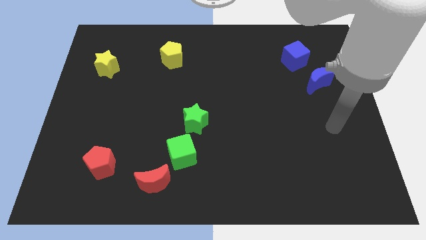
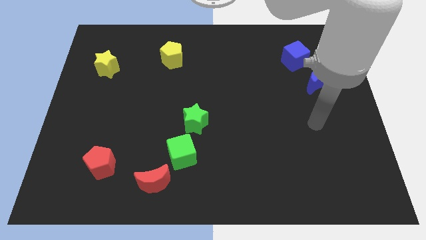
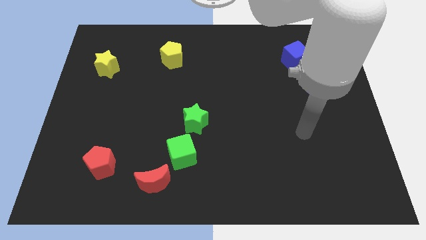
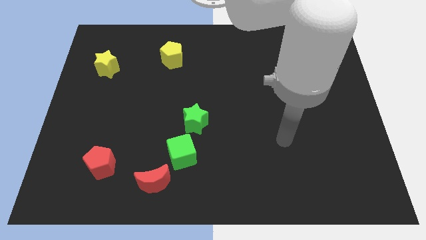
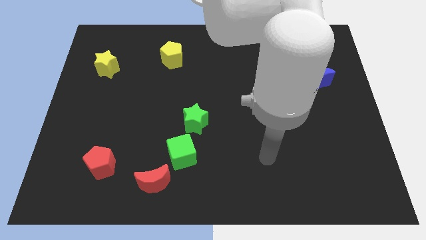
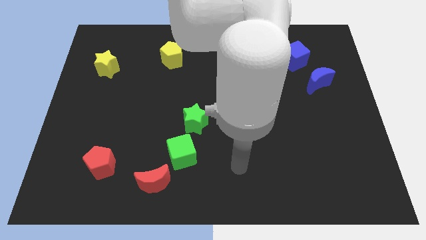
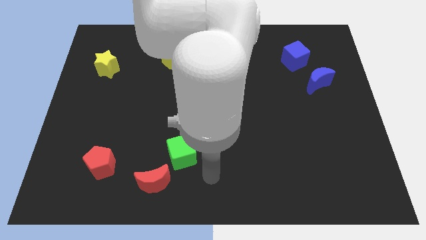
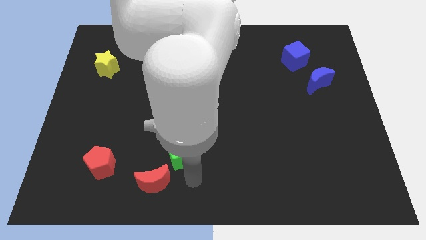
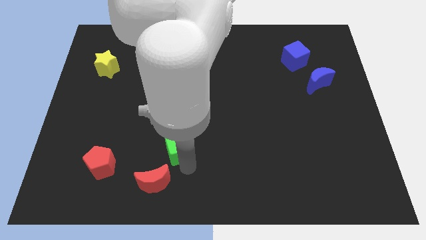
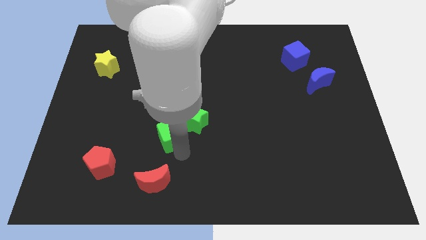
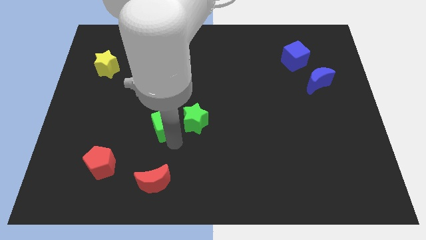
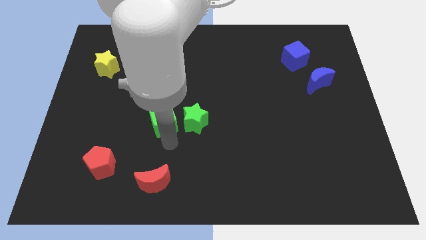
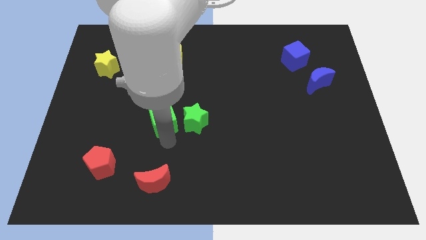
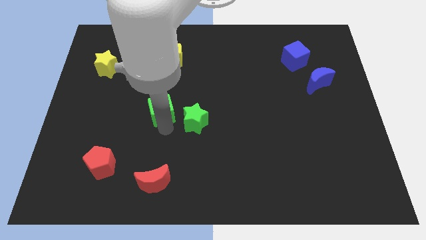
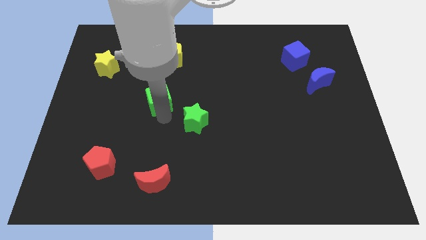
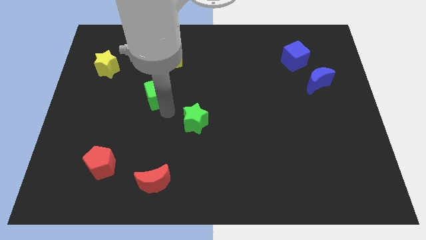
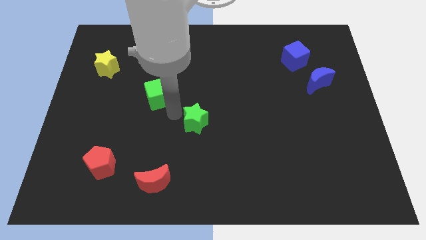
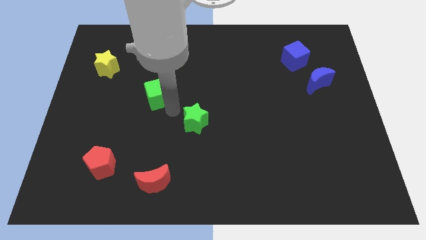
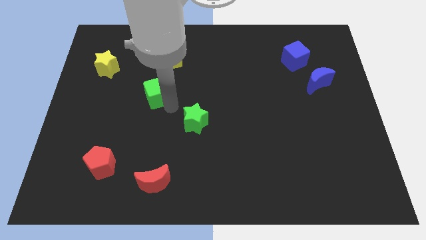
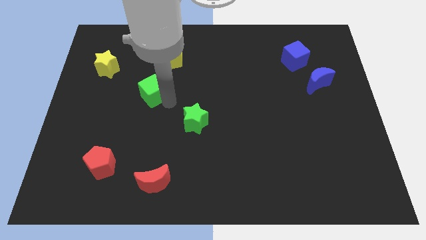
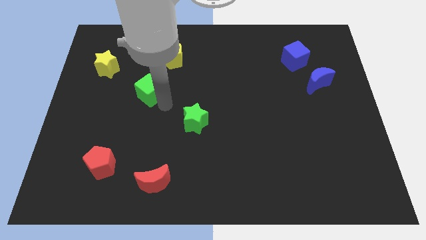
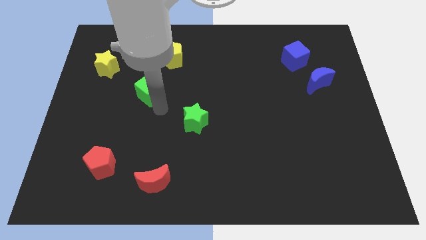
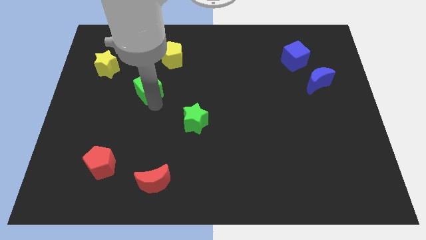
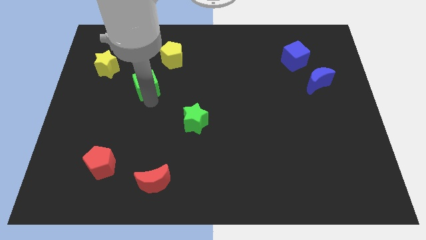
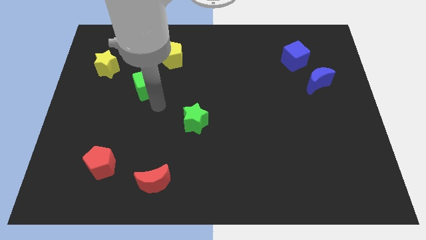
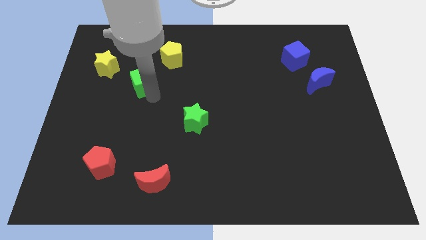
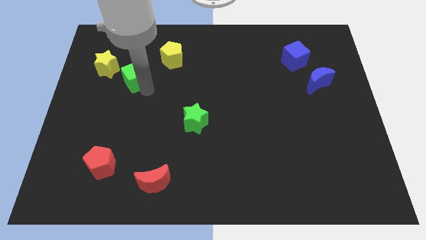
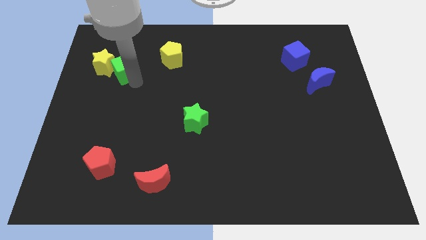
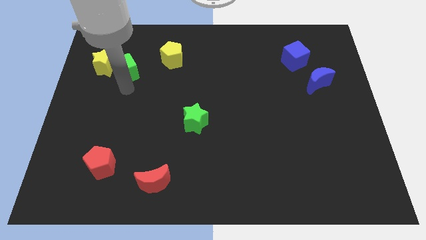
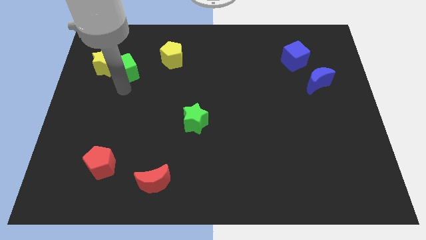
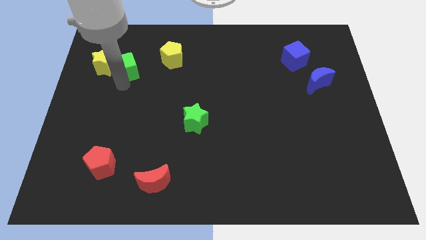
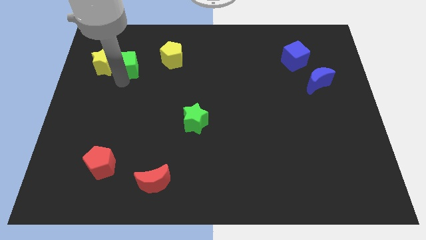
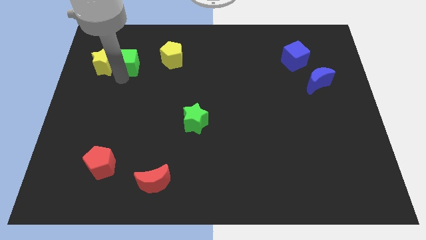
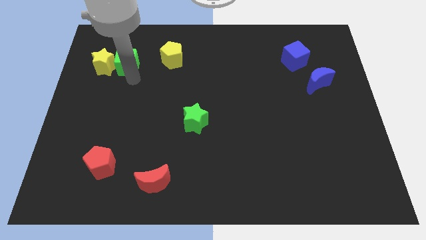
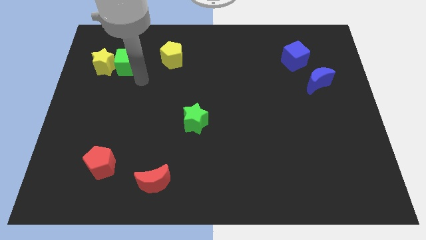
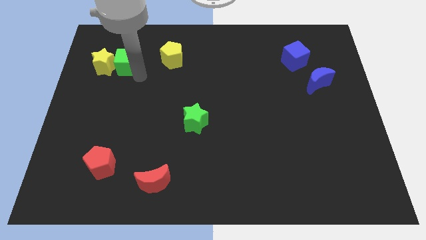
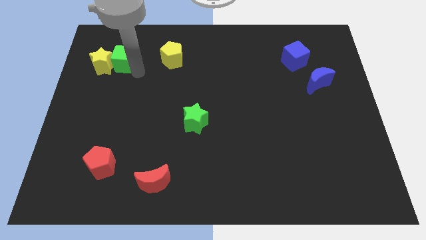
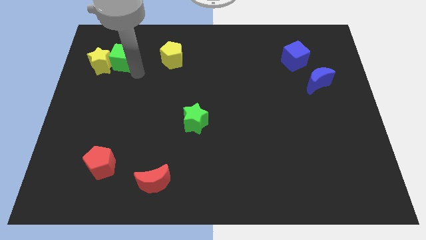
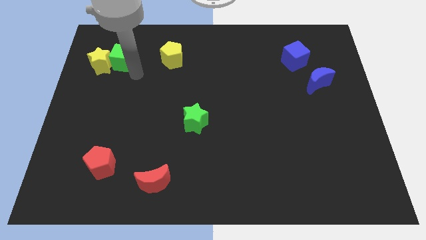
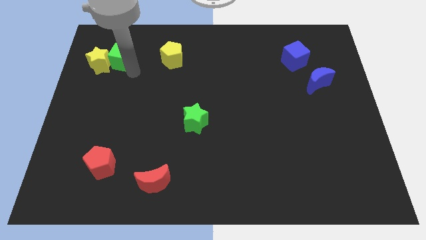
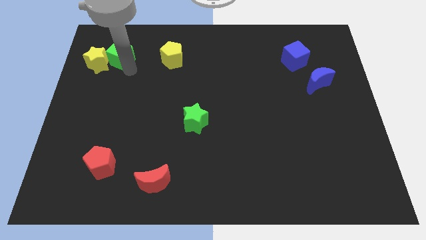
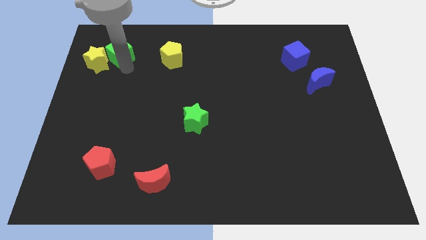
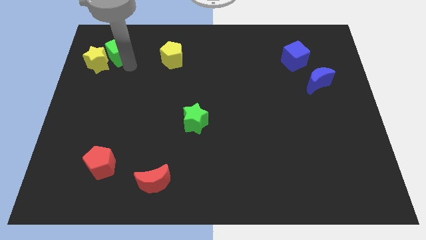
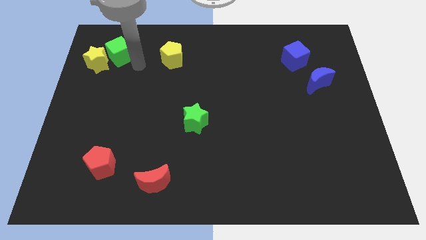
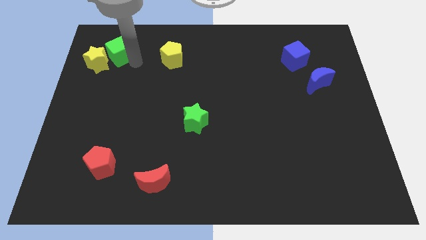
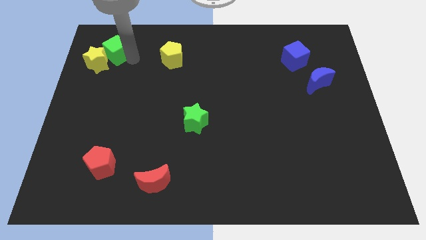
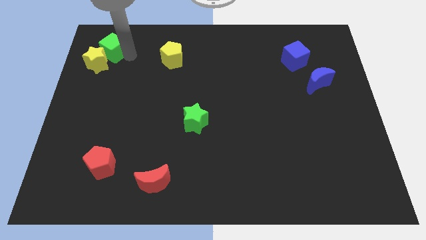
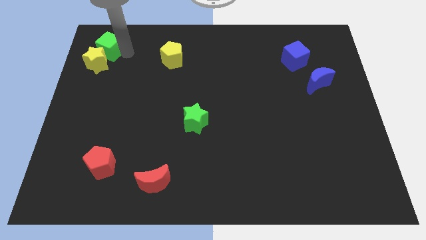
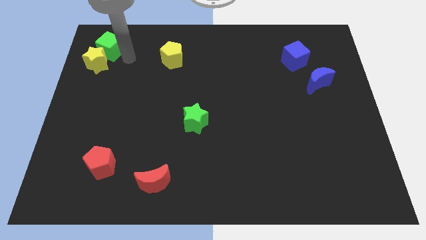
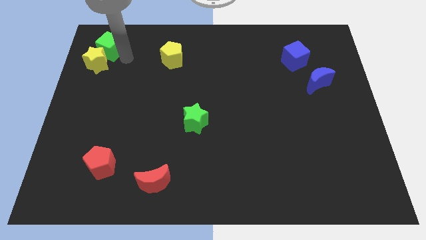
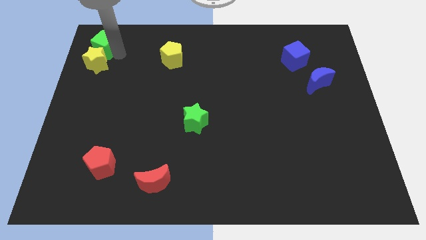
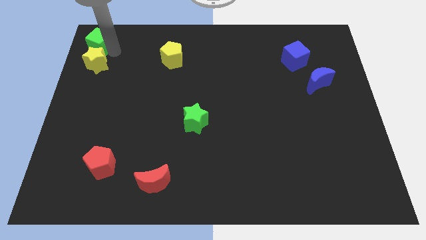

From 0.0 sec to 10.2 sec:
push the green cube to the top left of the board

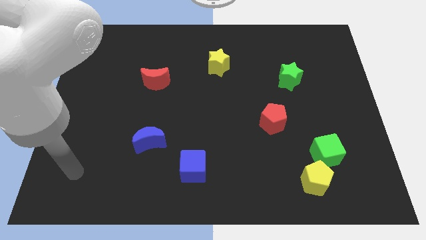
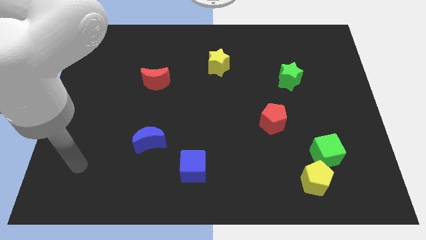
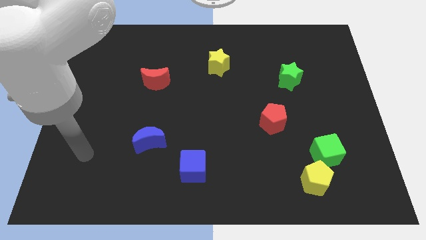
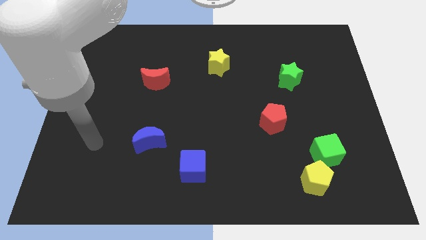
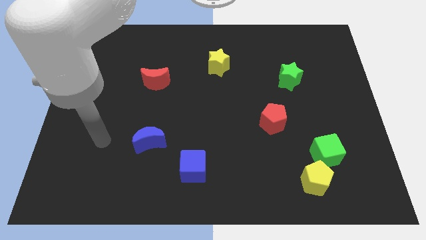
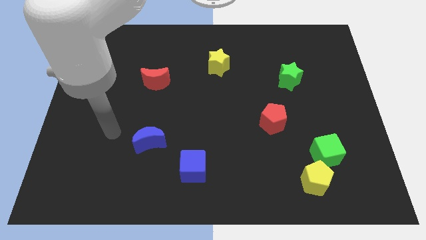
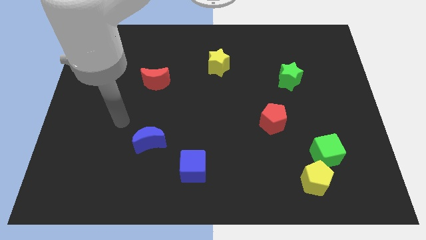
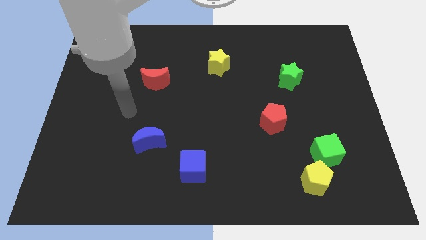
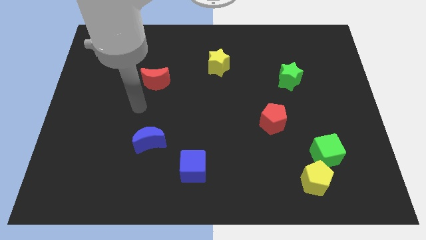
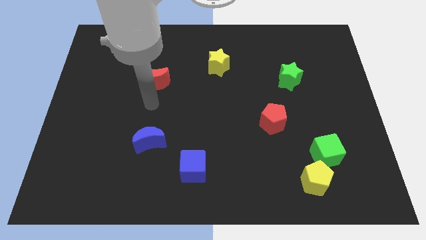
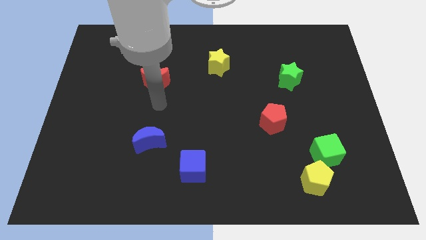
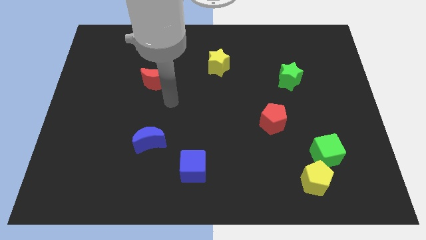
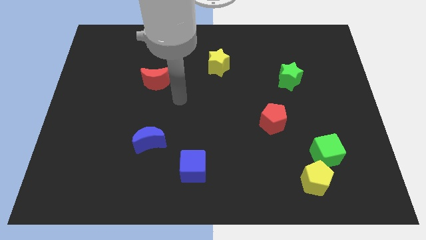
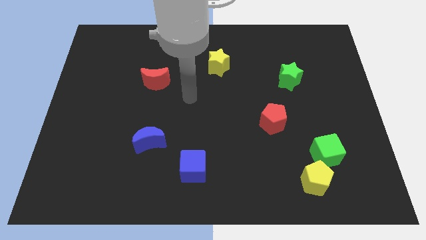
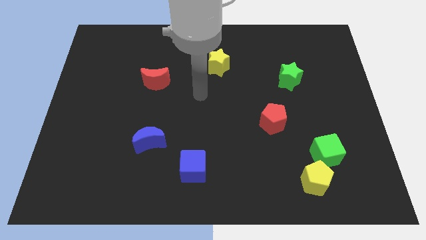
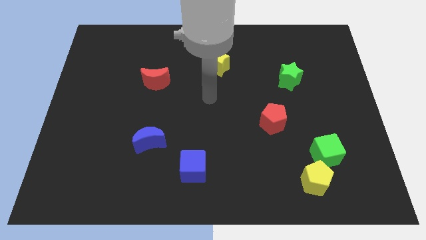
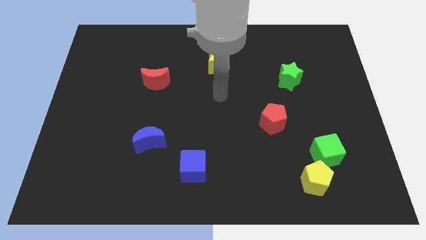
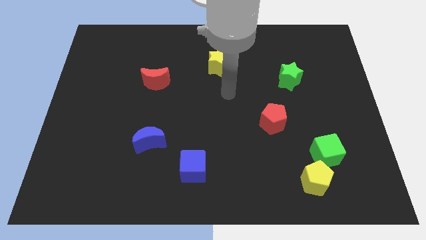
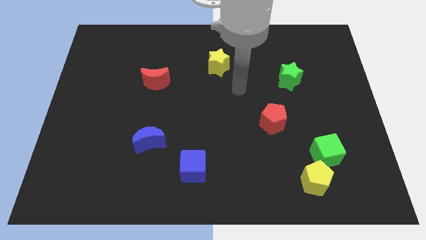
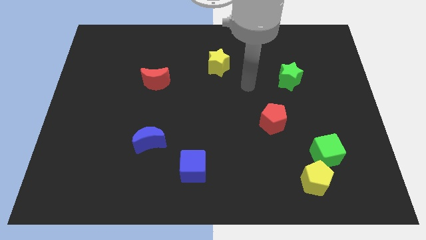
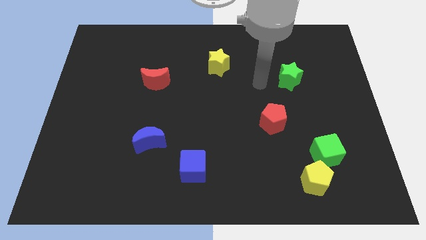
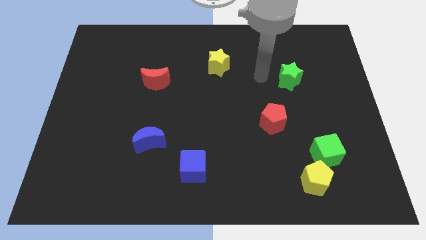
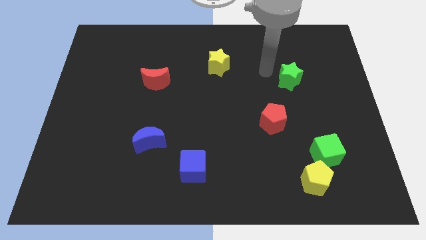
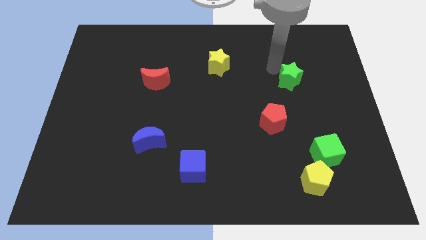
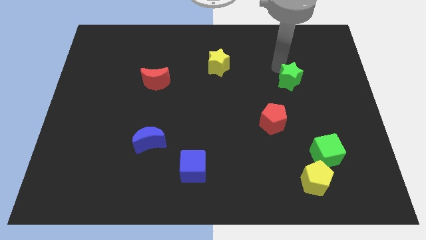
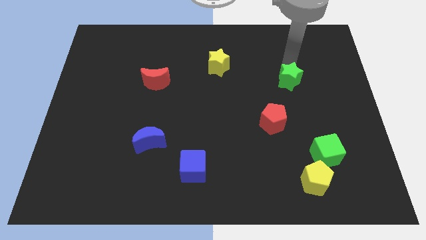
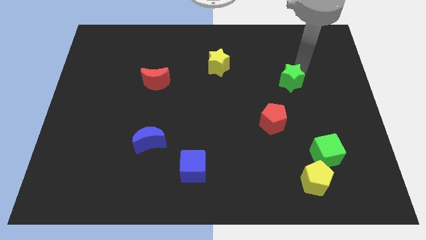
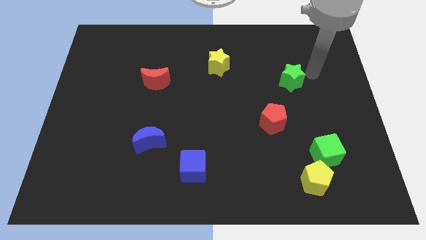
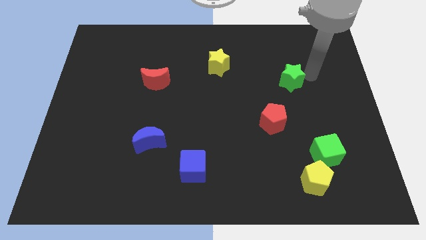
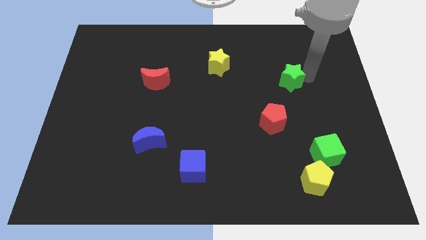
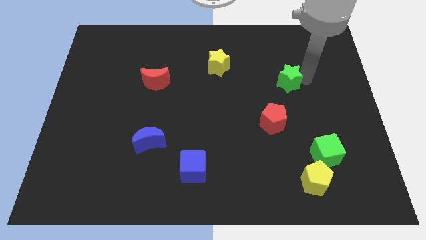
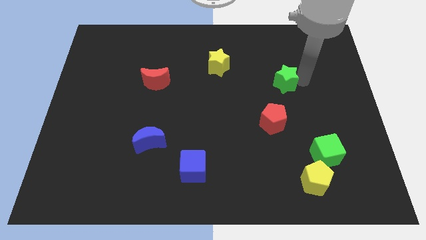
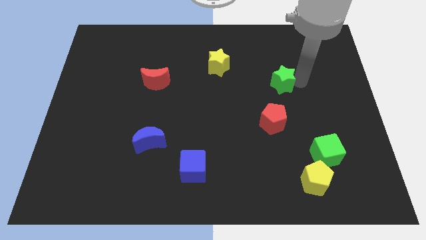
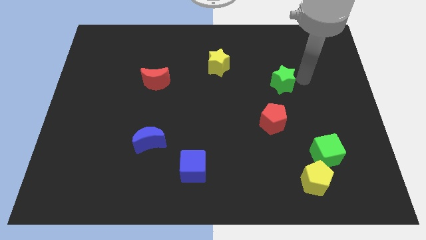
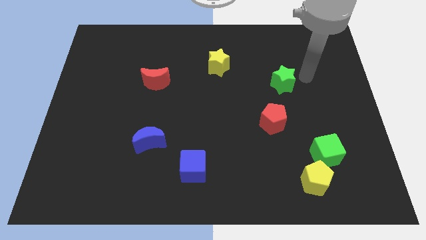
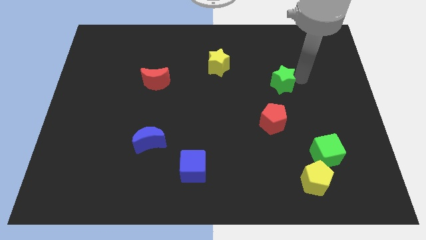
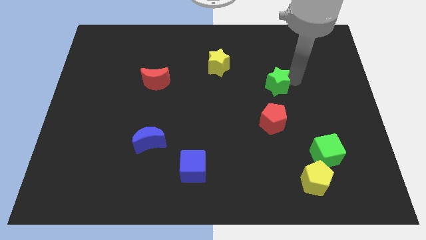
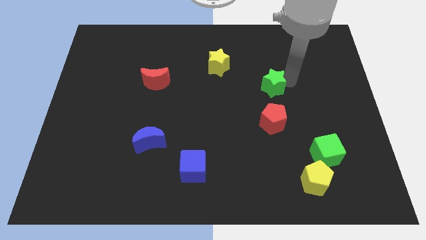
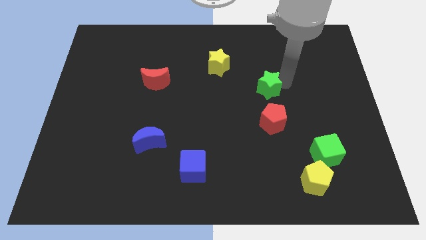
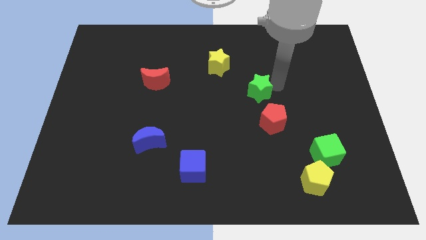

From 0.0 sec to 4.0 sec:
move the green star to the middle of the board
